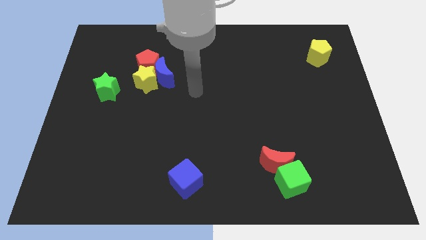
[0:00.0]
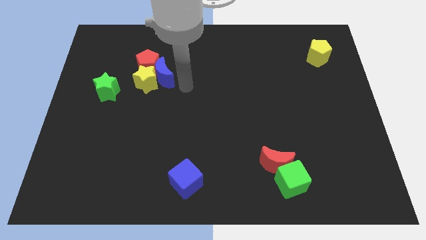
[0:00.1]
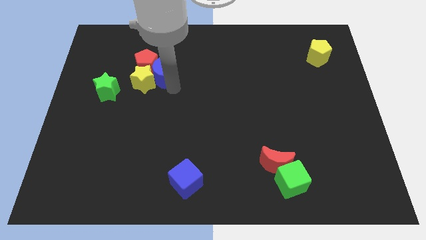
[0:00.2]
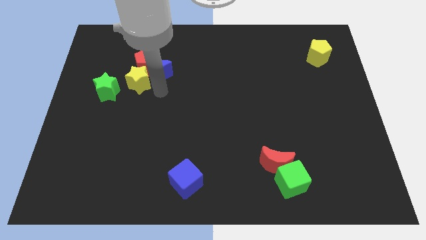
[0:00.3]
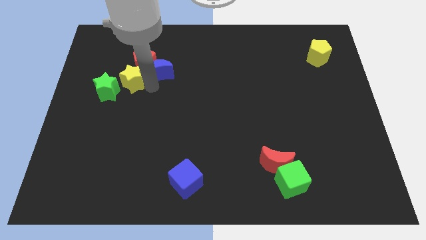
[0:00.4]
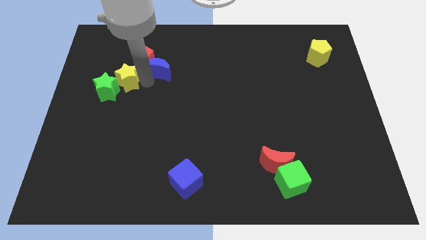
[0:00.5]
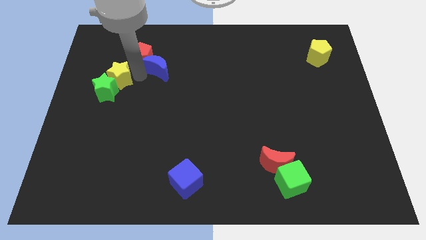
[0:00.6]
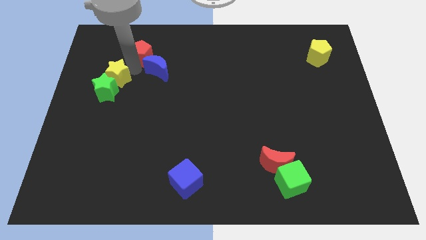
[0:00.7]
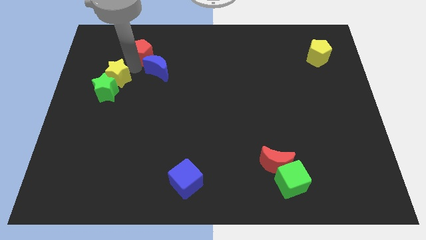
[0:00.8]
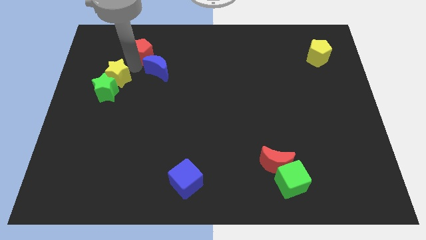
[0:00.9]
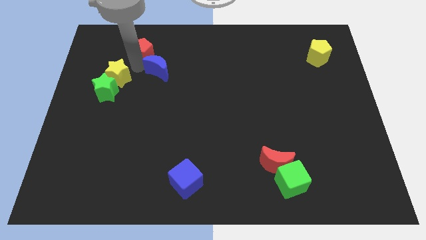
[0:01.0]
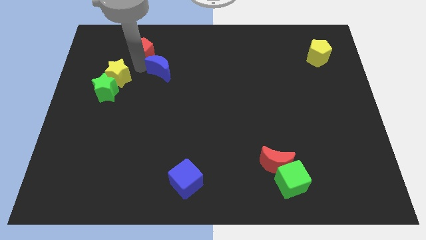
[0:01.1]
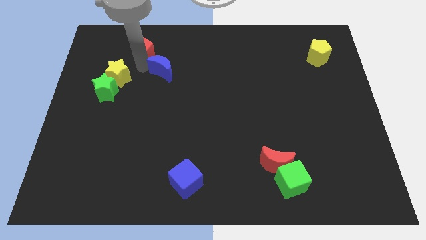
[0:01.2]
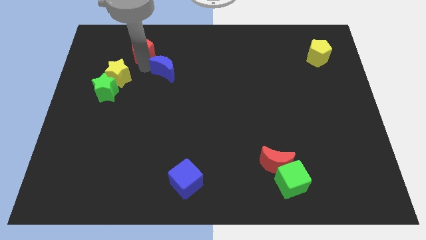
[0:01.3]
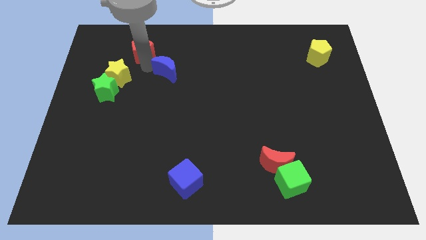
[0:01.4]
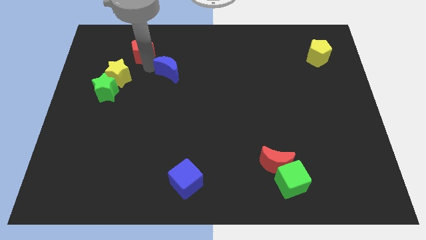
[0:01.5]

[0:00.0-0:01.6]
separate the blue moon from the yellow star and red pentagon

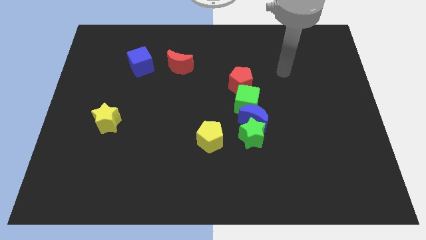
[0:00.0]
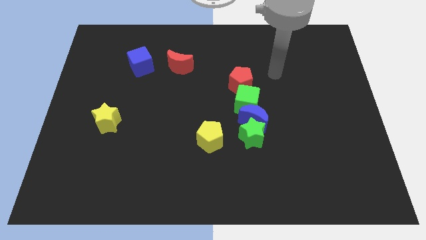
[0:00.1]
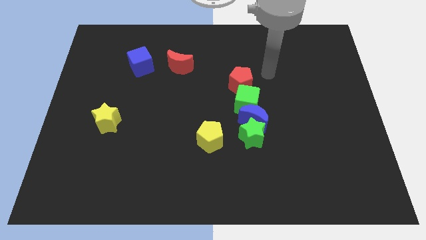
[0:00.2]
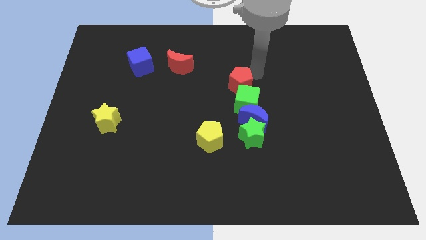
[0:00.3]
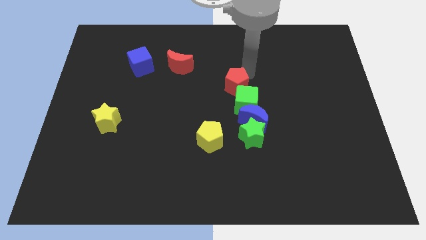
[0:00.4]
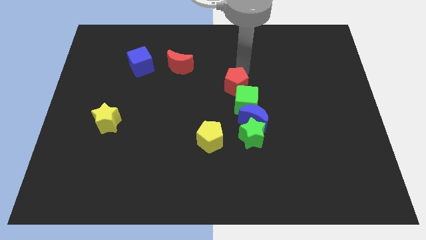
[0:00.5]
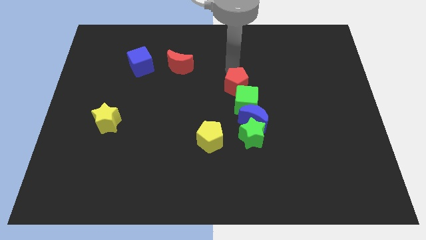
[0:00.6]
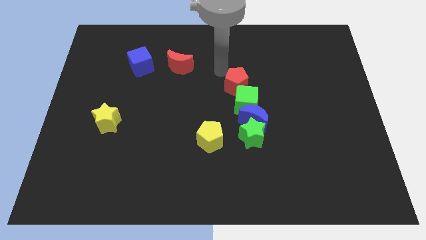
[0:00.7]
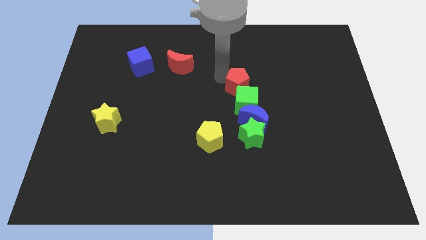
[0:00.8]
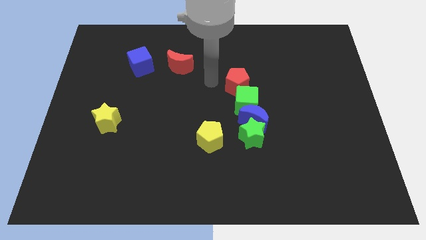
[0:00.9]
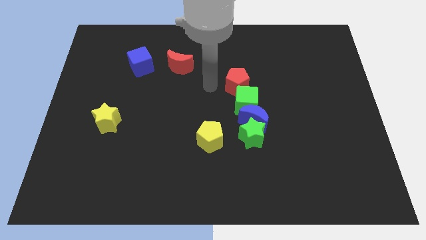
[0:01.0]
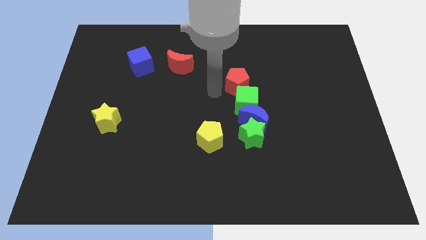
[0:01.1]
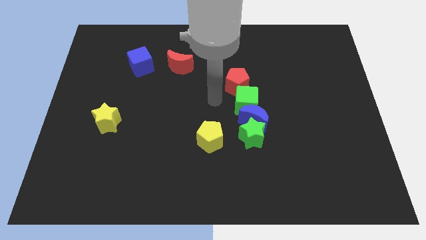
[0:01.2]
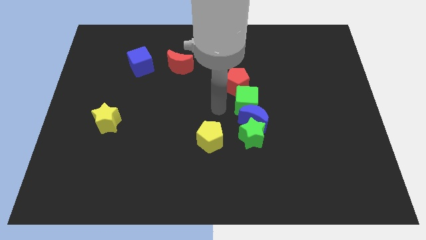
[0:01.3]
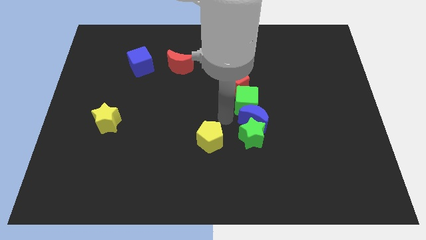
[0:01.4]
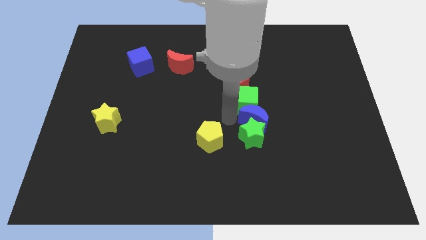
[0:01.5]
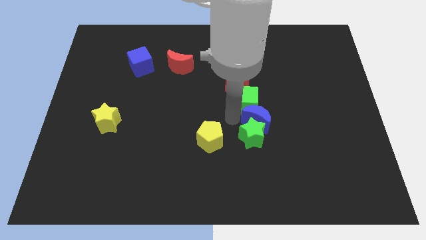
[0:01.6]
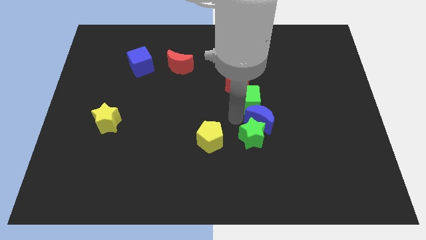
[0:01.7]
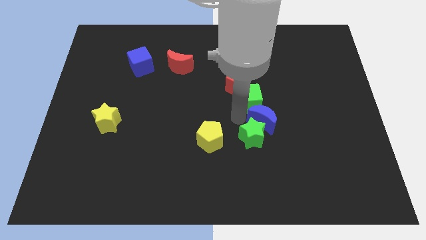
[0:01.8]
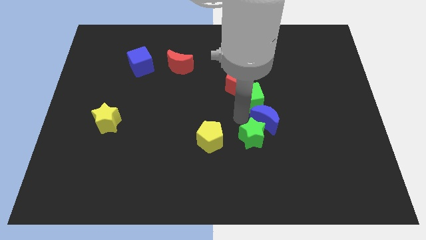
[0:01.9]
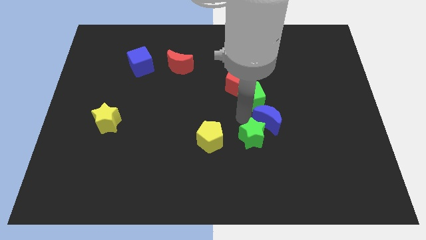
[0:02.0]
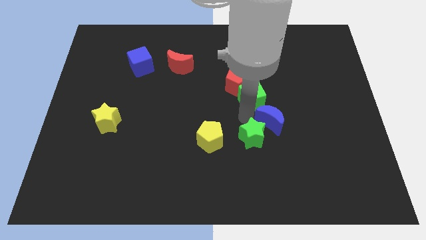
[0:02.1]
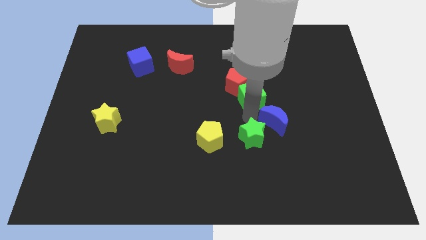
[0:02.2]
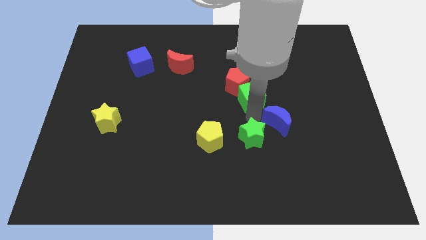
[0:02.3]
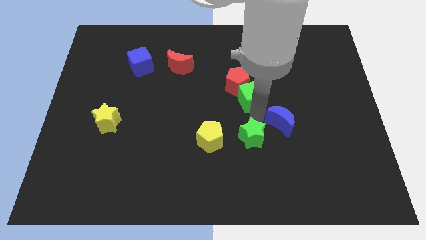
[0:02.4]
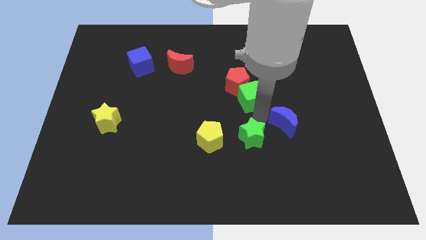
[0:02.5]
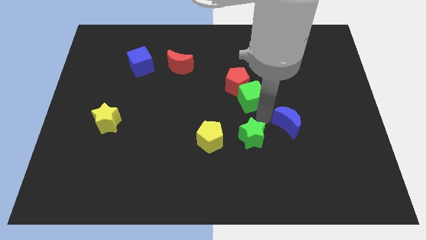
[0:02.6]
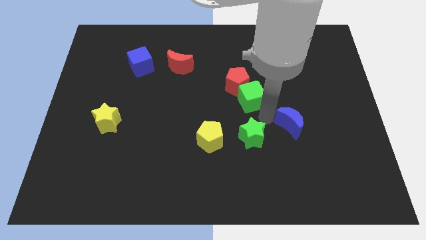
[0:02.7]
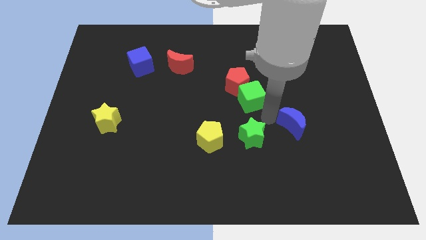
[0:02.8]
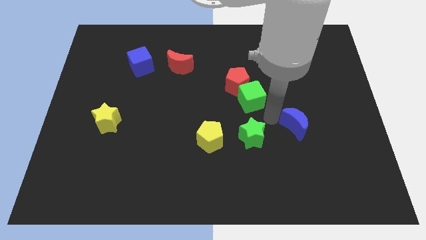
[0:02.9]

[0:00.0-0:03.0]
move the blue moon away from the green star and green cube

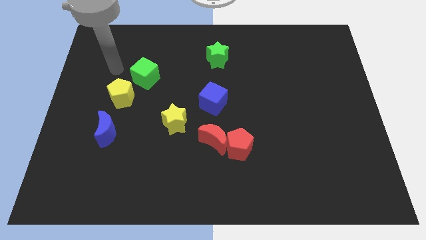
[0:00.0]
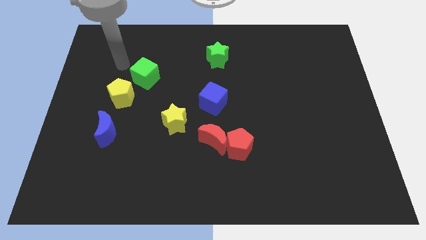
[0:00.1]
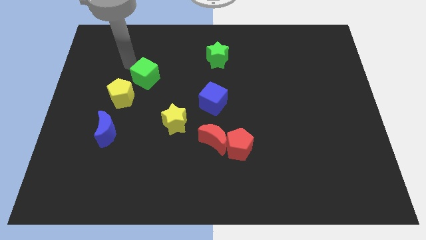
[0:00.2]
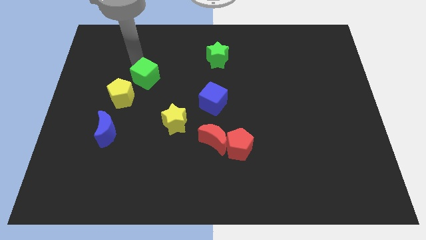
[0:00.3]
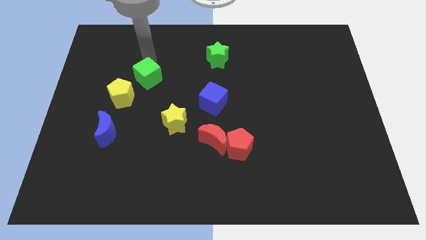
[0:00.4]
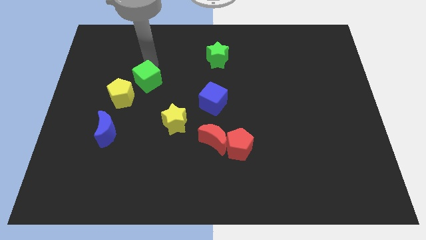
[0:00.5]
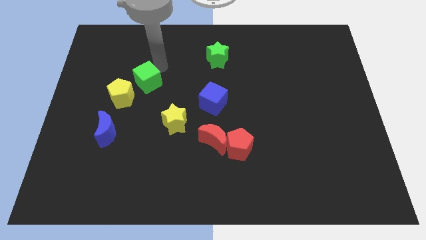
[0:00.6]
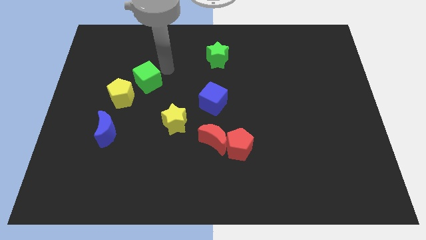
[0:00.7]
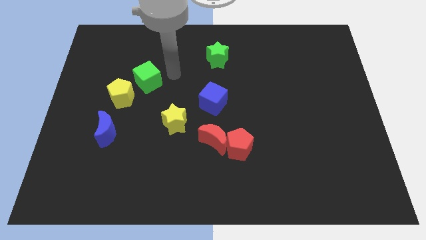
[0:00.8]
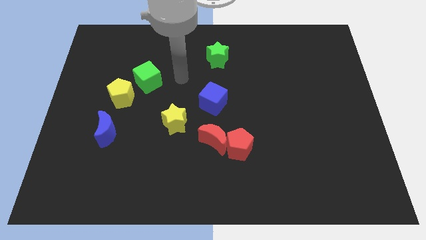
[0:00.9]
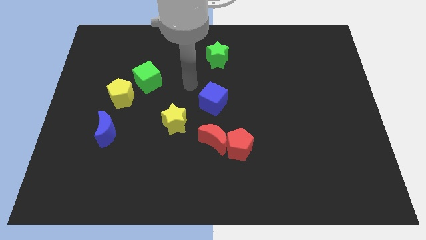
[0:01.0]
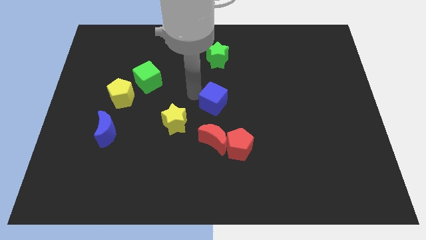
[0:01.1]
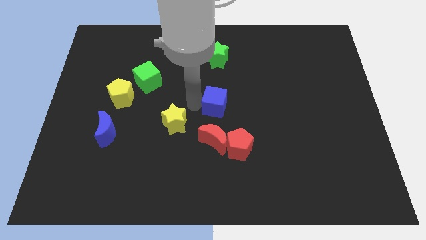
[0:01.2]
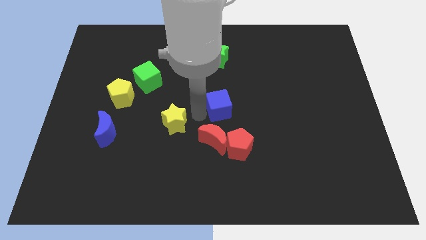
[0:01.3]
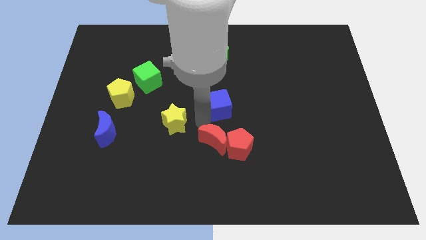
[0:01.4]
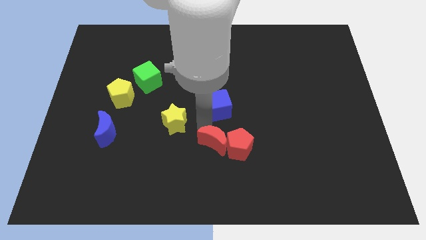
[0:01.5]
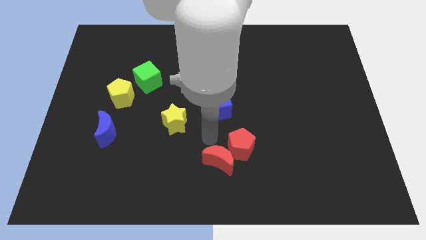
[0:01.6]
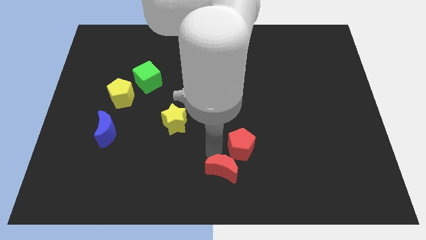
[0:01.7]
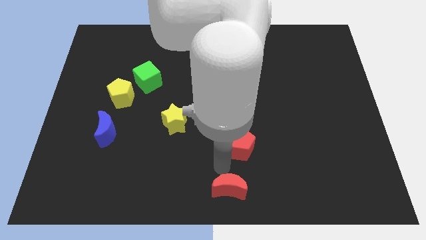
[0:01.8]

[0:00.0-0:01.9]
move the red pentagon away from the red moon

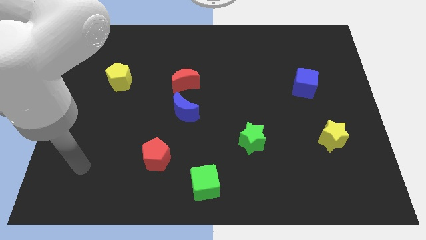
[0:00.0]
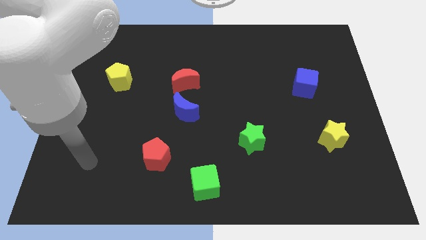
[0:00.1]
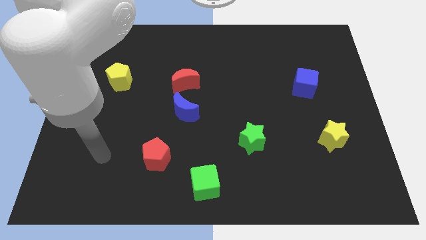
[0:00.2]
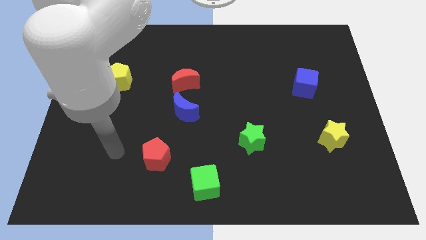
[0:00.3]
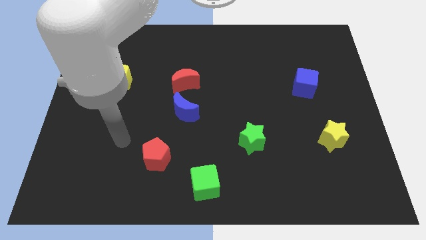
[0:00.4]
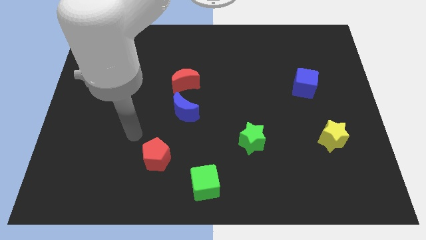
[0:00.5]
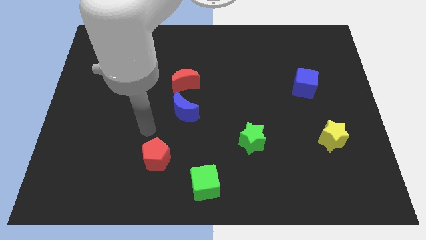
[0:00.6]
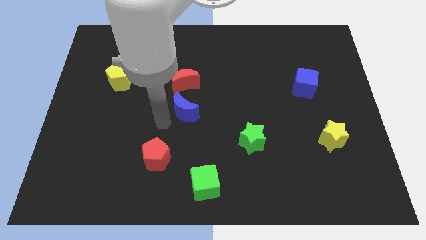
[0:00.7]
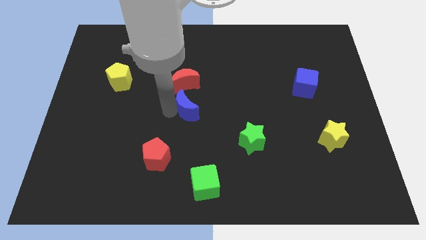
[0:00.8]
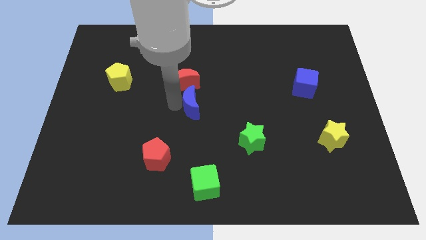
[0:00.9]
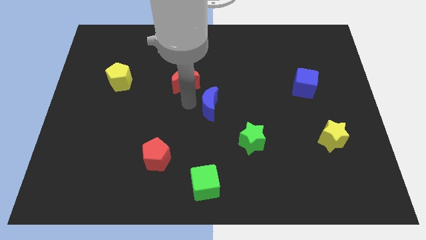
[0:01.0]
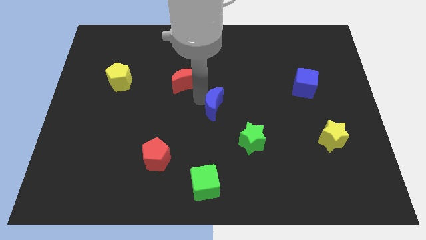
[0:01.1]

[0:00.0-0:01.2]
pull the red moon apart from the blue moon

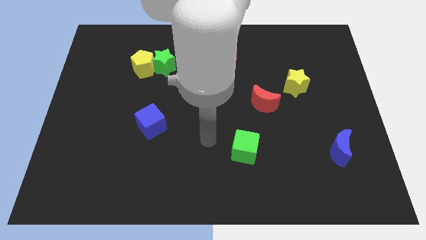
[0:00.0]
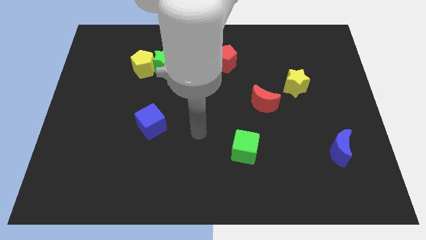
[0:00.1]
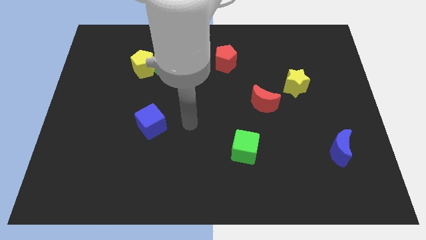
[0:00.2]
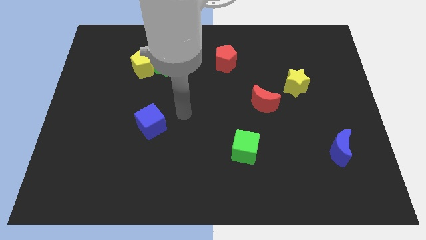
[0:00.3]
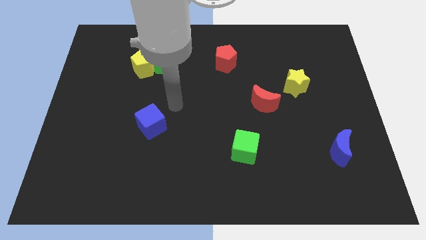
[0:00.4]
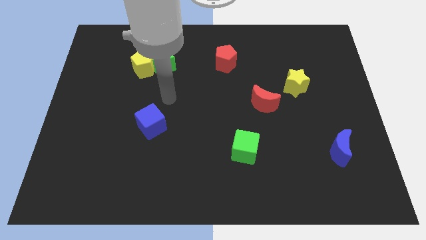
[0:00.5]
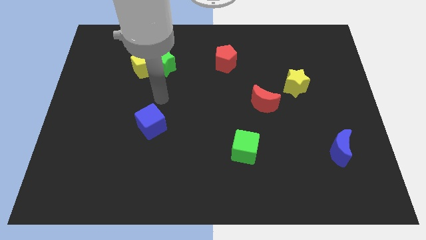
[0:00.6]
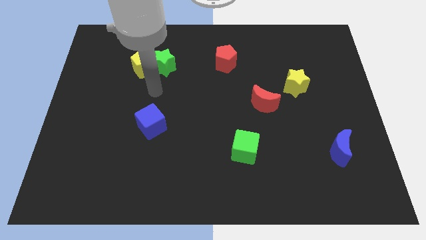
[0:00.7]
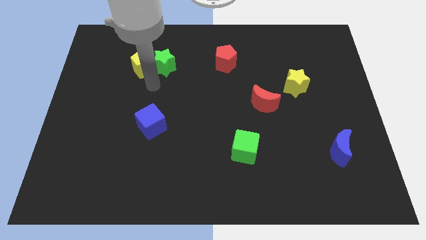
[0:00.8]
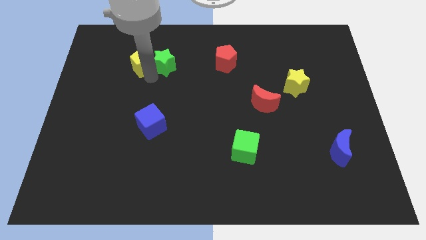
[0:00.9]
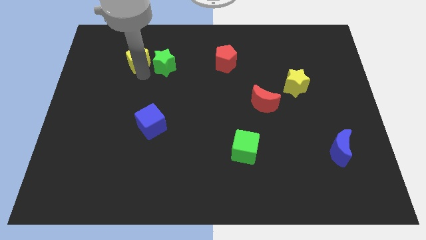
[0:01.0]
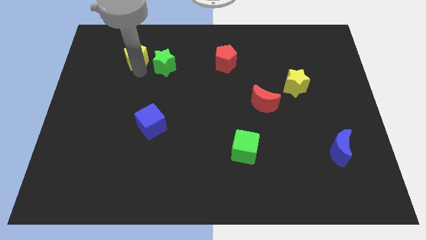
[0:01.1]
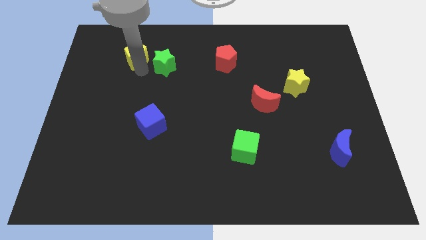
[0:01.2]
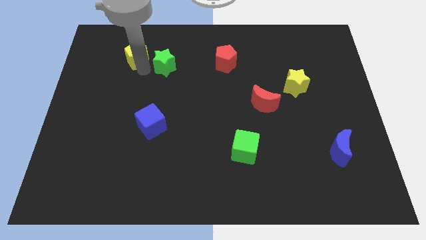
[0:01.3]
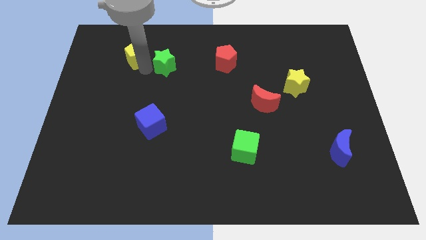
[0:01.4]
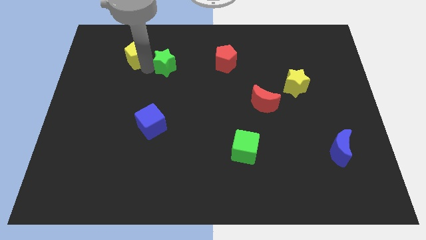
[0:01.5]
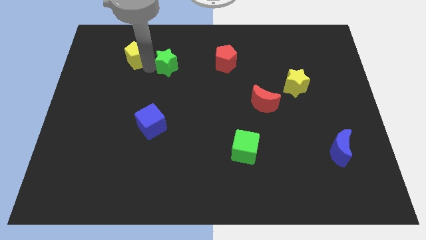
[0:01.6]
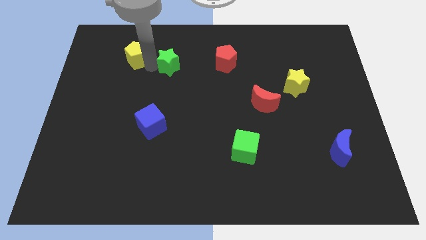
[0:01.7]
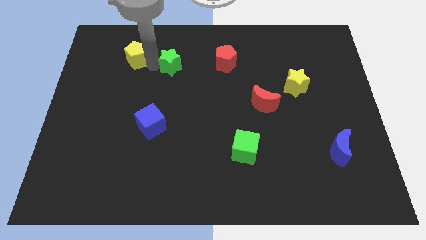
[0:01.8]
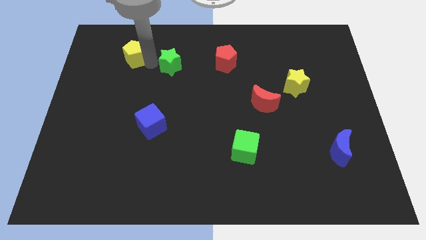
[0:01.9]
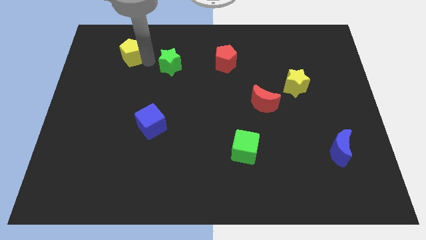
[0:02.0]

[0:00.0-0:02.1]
separate the green star from the yellow pentagon
